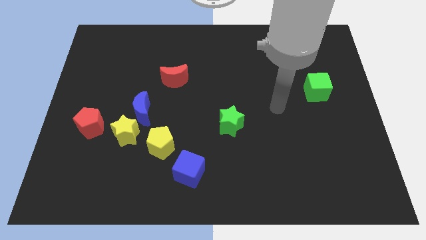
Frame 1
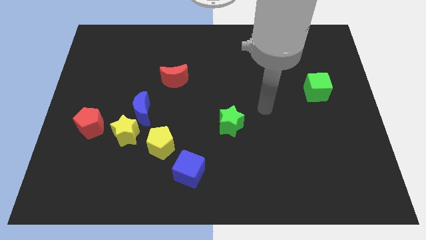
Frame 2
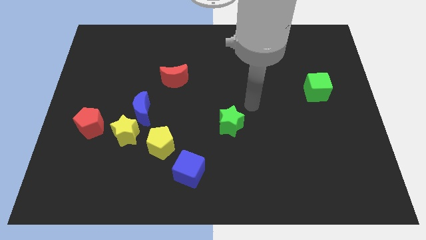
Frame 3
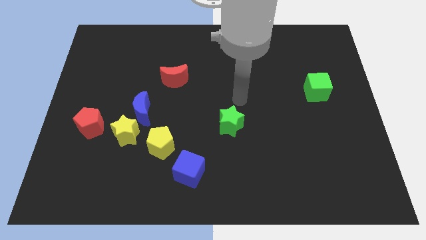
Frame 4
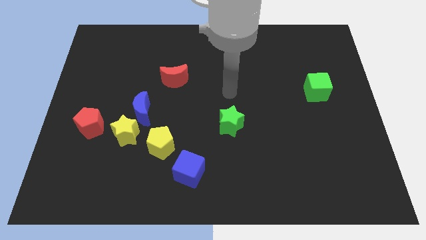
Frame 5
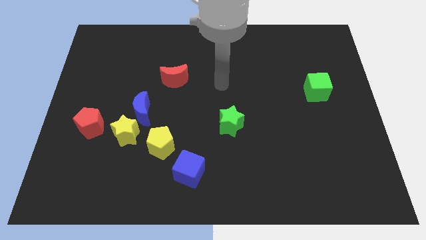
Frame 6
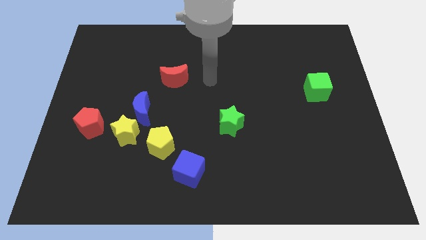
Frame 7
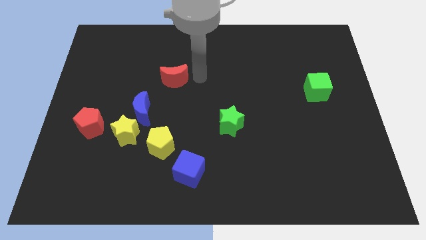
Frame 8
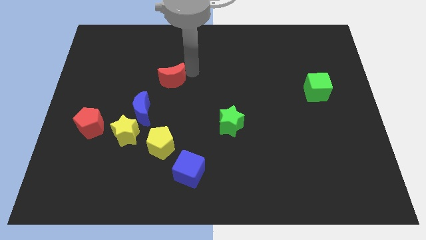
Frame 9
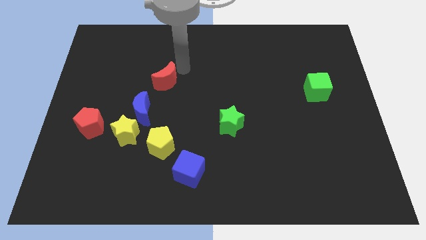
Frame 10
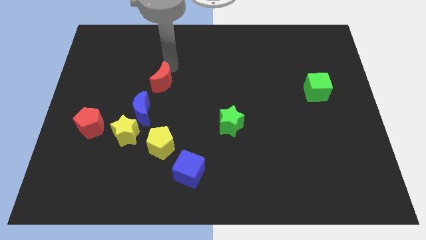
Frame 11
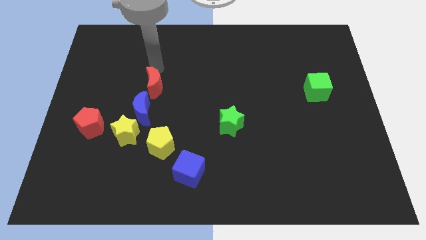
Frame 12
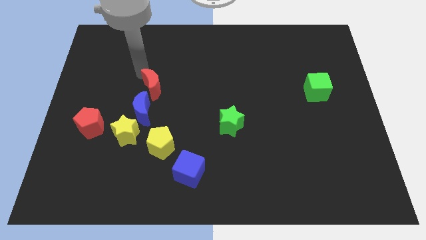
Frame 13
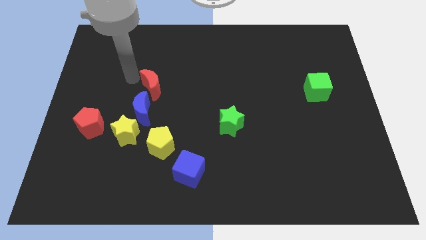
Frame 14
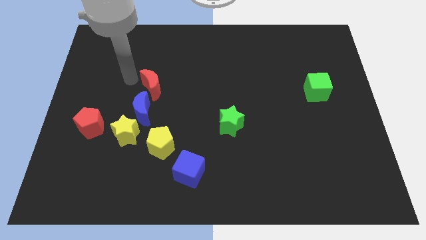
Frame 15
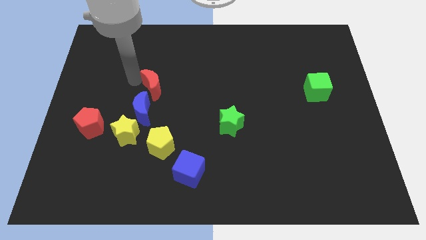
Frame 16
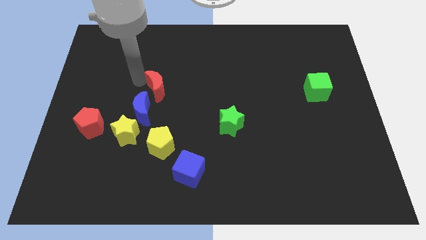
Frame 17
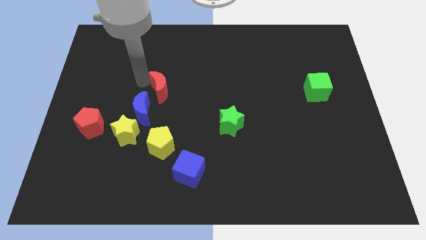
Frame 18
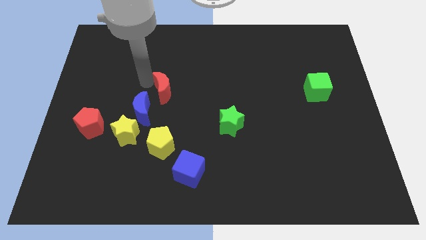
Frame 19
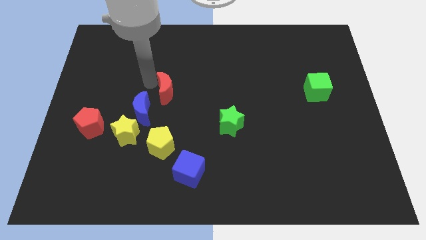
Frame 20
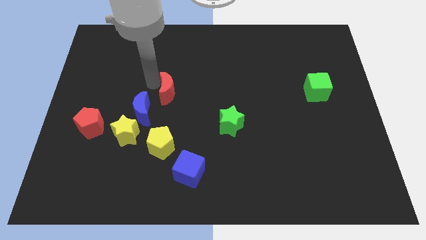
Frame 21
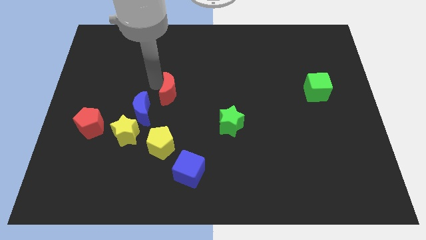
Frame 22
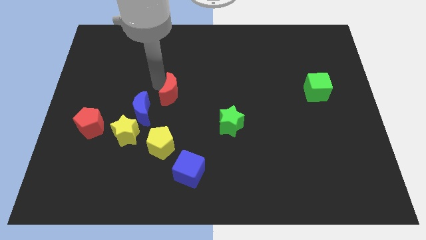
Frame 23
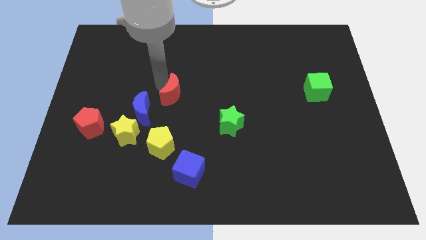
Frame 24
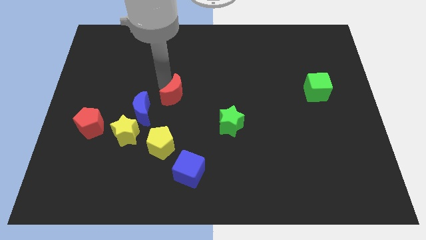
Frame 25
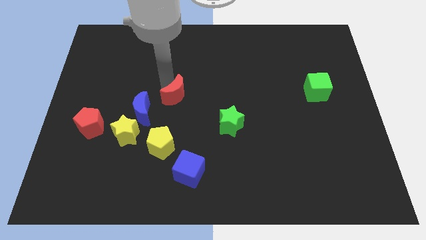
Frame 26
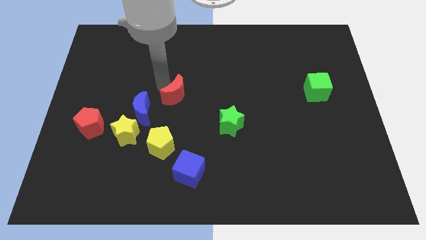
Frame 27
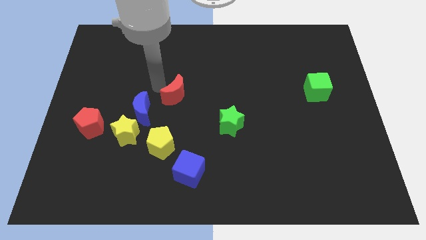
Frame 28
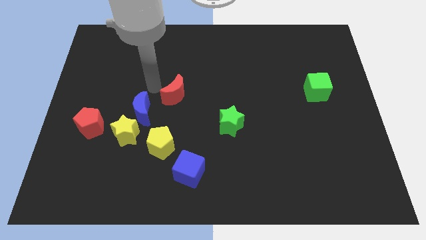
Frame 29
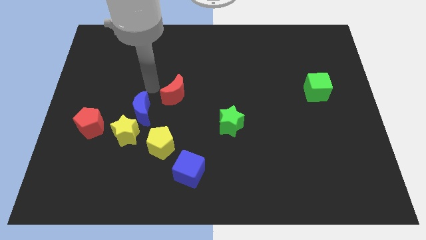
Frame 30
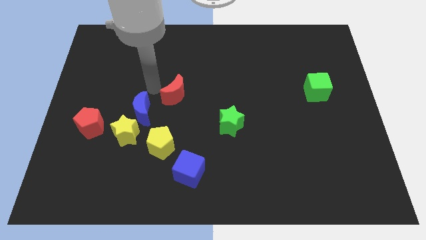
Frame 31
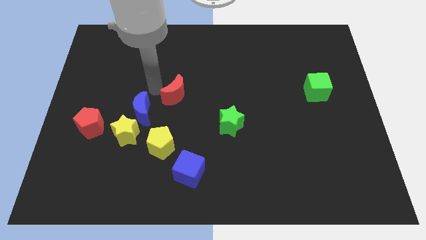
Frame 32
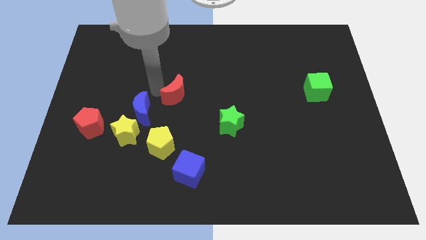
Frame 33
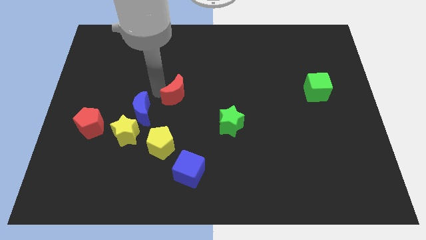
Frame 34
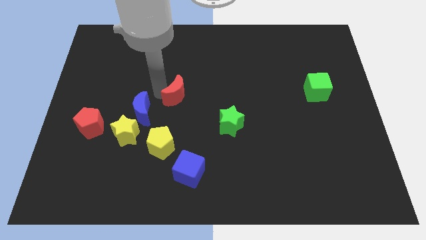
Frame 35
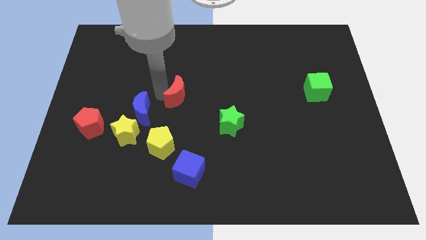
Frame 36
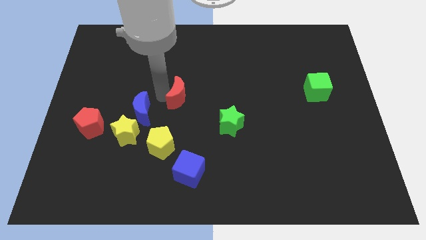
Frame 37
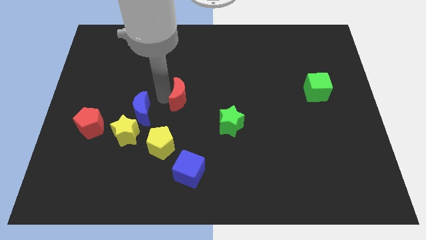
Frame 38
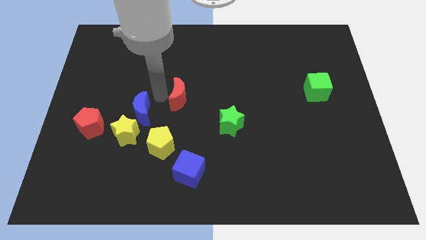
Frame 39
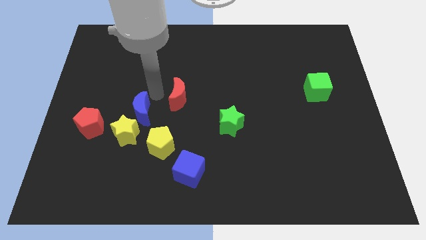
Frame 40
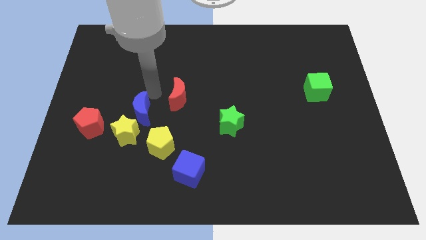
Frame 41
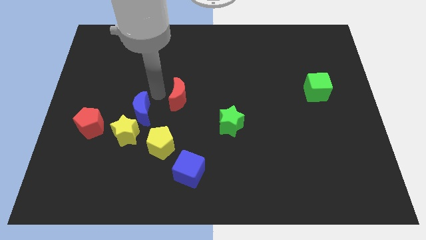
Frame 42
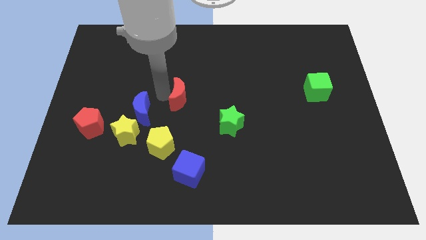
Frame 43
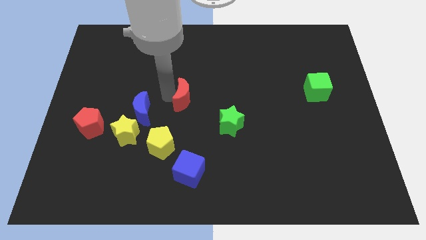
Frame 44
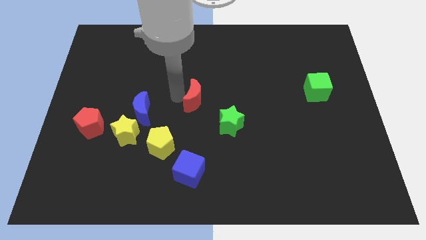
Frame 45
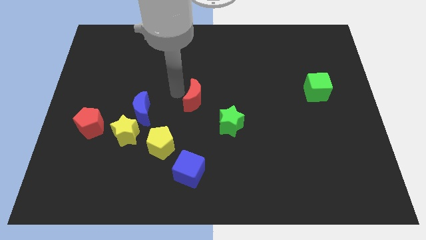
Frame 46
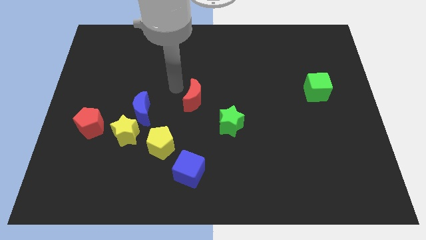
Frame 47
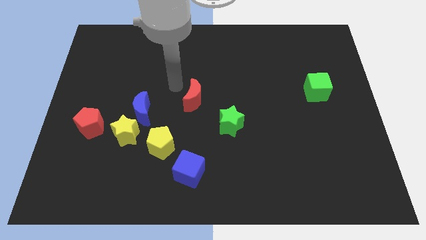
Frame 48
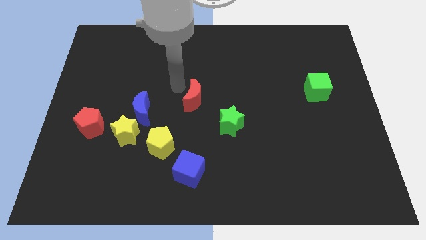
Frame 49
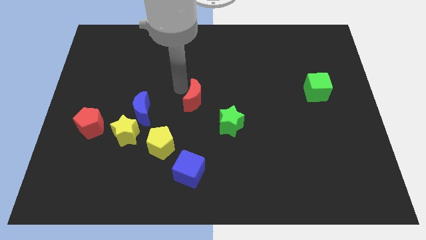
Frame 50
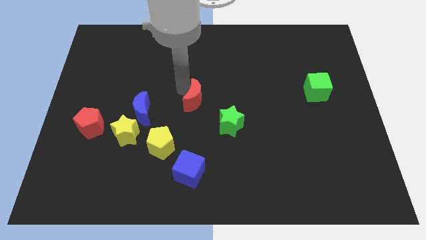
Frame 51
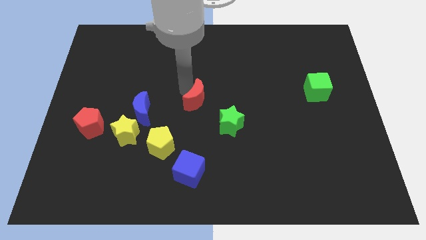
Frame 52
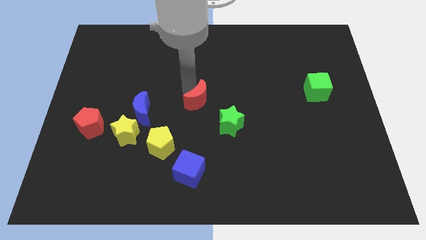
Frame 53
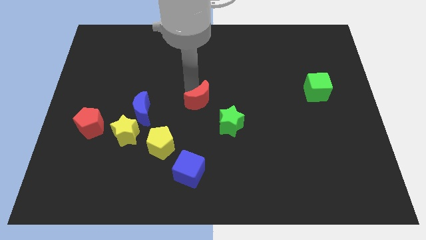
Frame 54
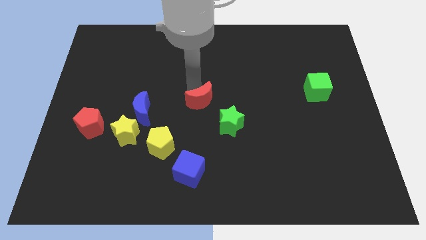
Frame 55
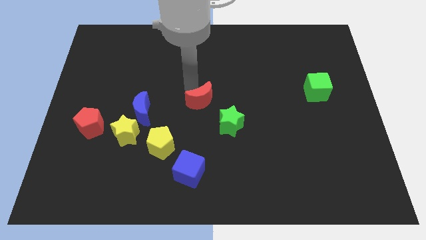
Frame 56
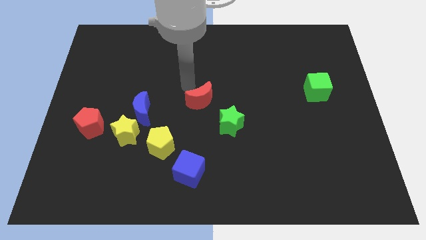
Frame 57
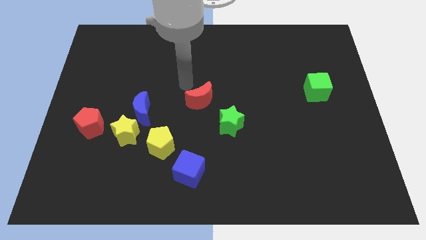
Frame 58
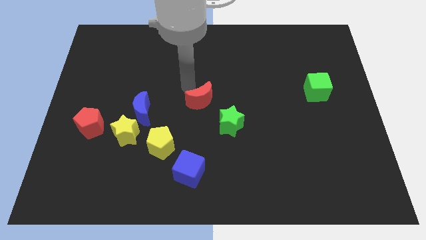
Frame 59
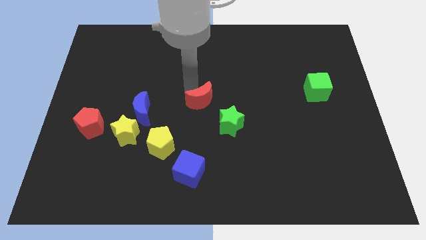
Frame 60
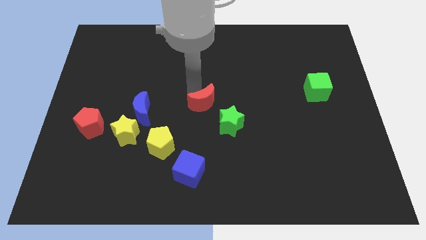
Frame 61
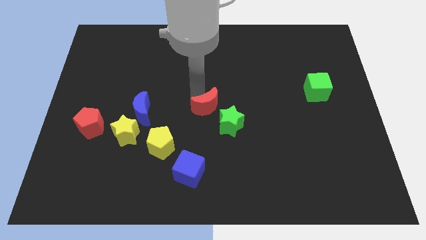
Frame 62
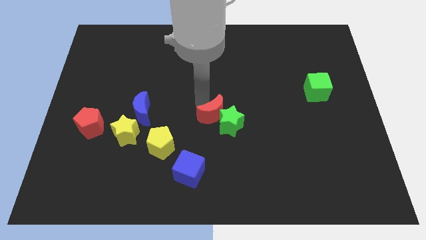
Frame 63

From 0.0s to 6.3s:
put the red moon towards the green star

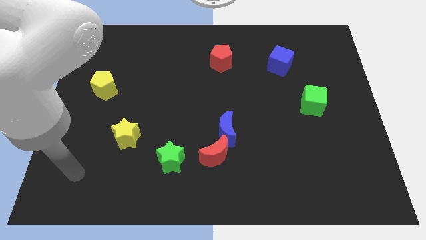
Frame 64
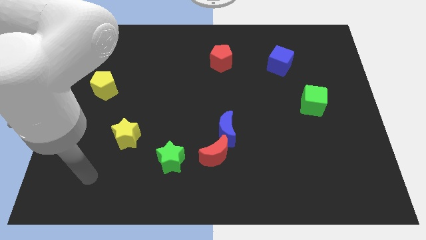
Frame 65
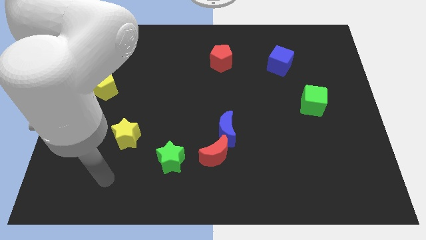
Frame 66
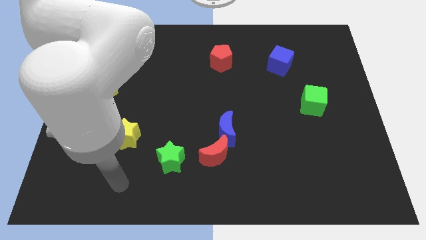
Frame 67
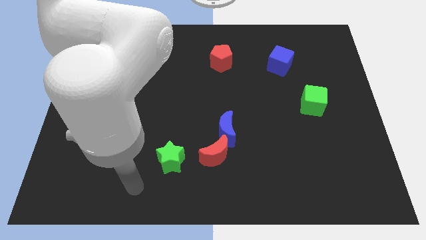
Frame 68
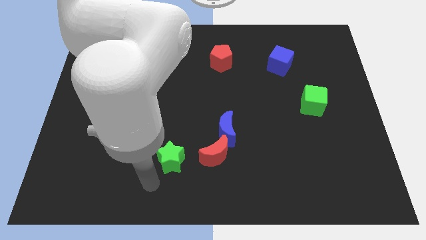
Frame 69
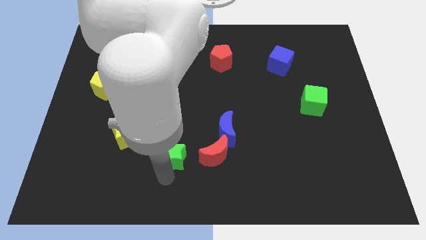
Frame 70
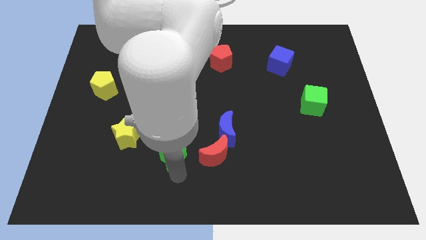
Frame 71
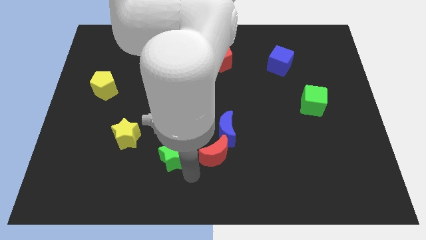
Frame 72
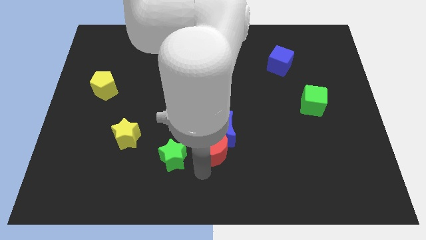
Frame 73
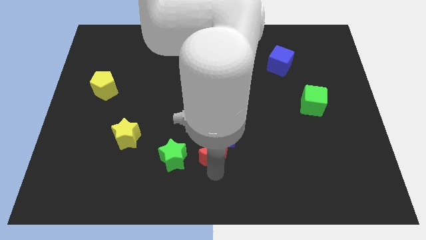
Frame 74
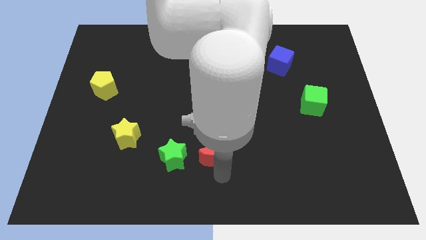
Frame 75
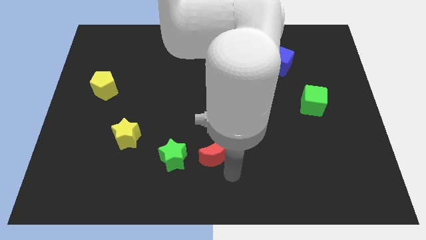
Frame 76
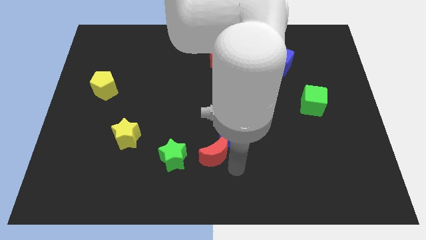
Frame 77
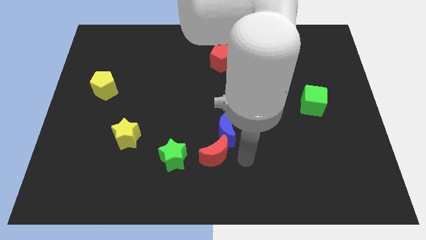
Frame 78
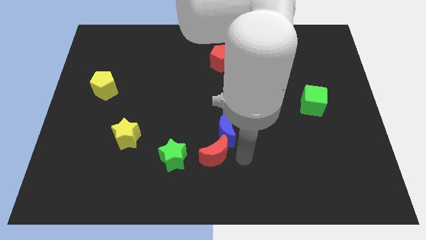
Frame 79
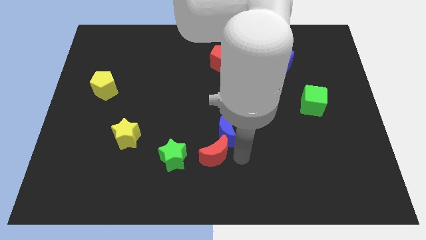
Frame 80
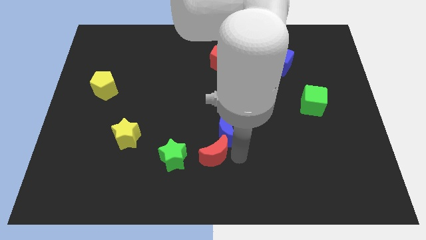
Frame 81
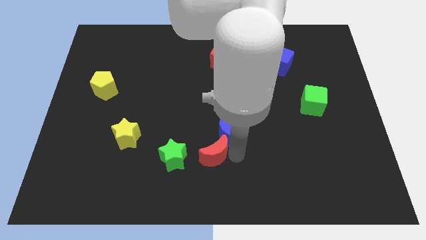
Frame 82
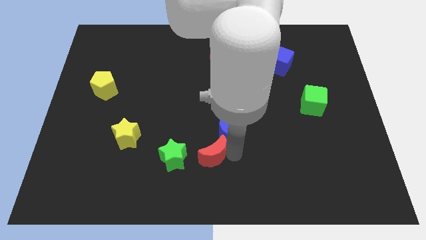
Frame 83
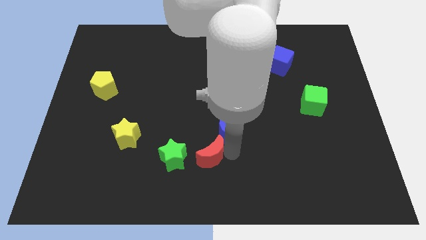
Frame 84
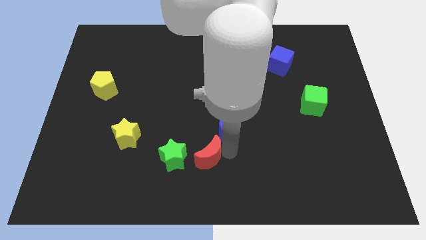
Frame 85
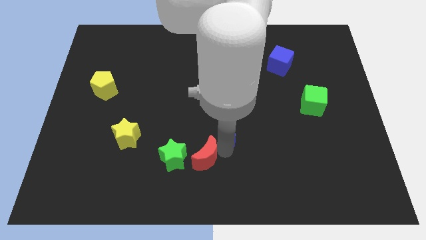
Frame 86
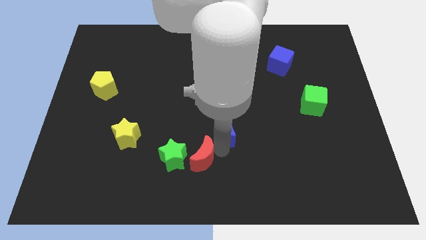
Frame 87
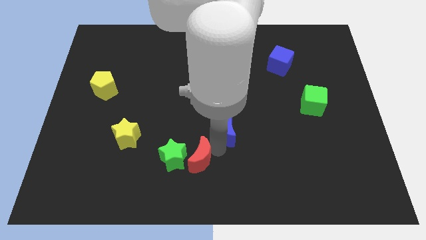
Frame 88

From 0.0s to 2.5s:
move the red moon towards the green star
